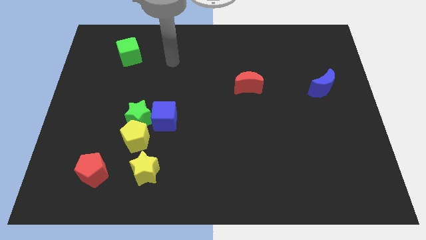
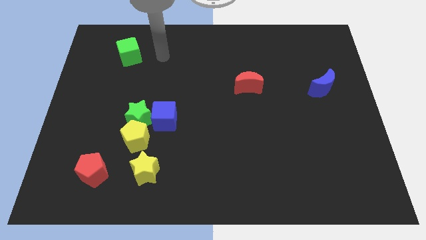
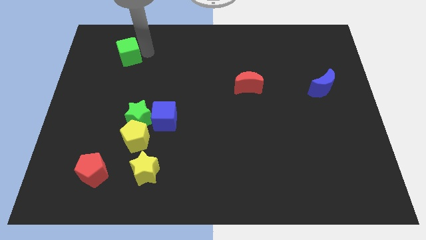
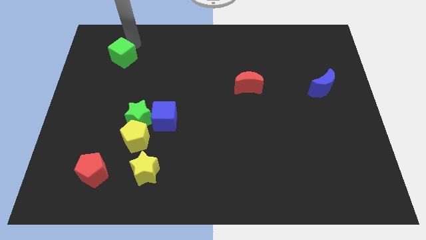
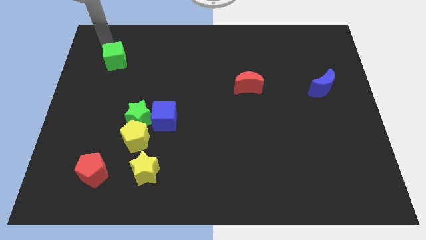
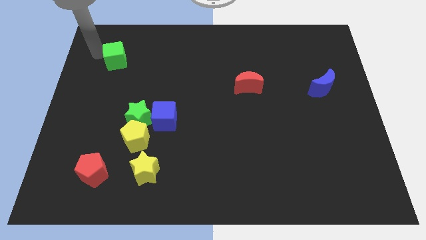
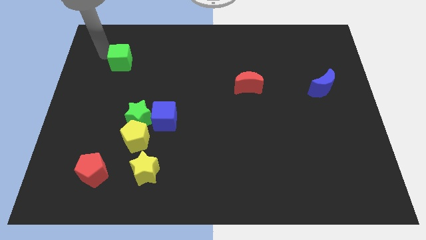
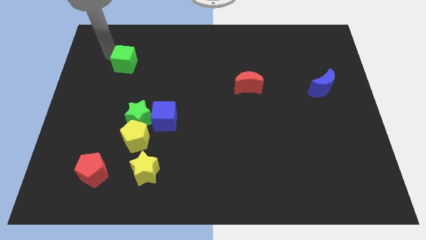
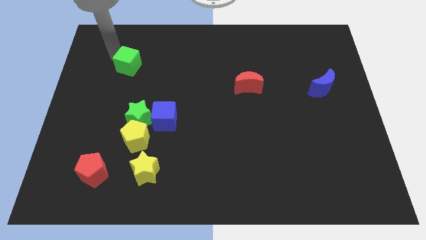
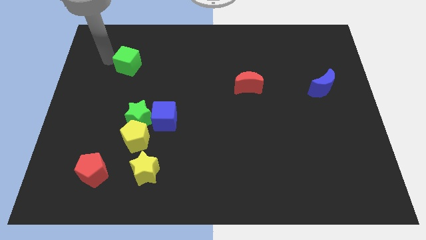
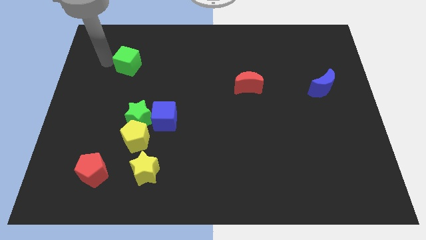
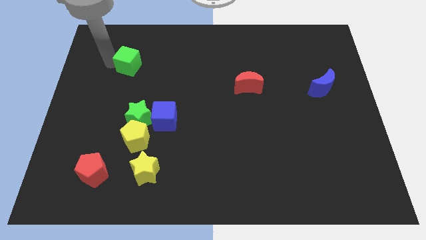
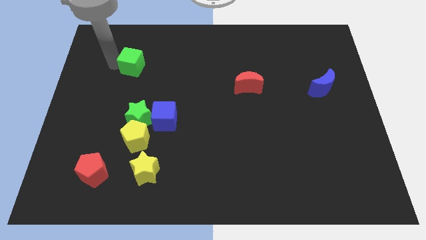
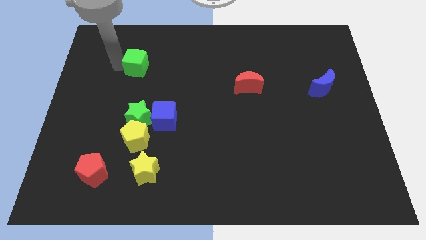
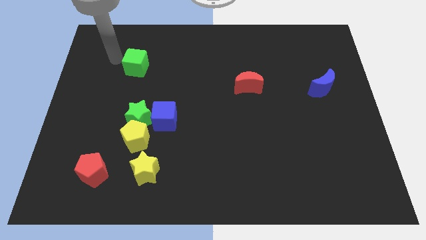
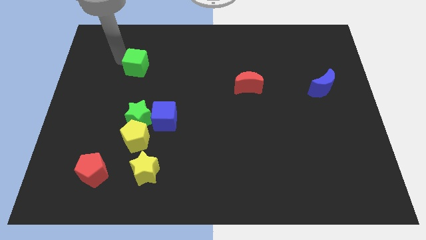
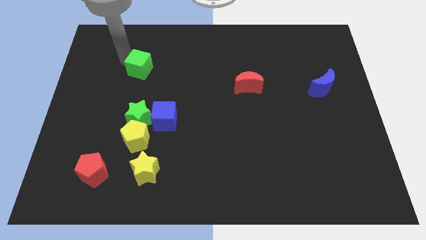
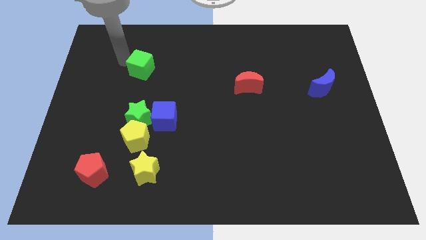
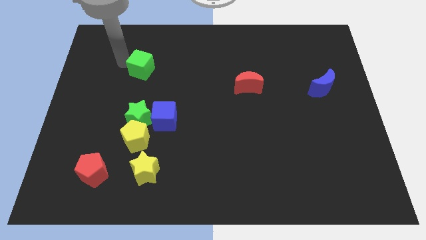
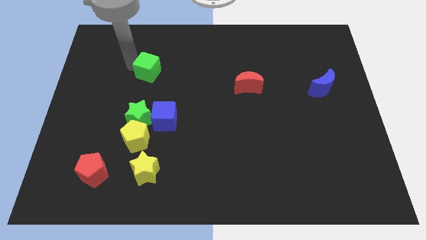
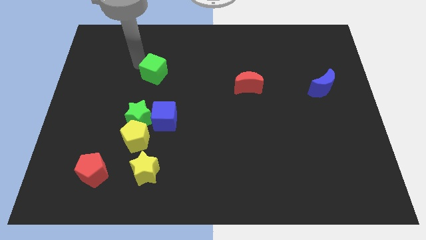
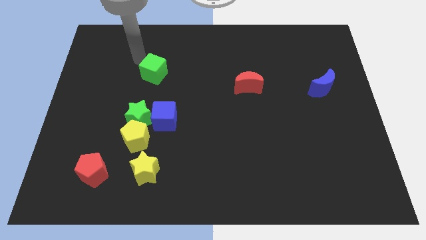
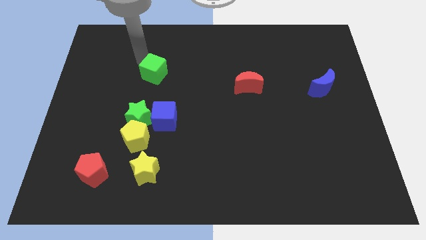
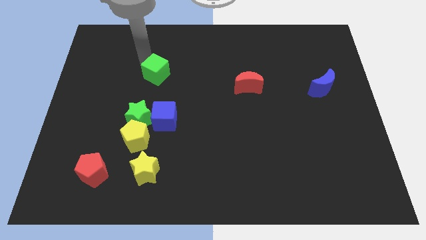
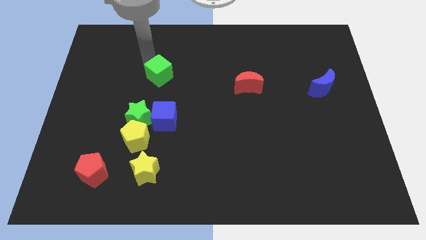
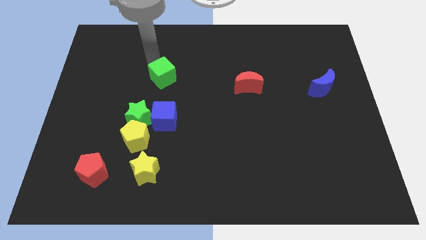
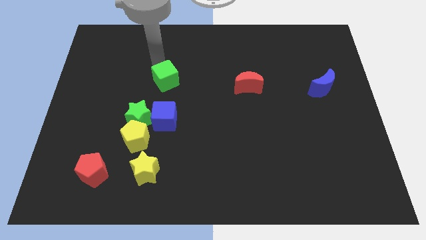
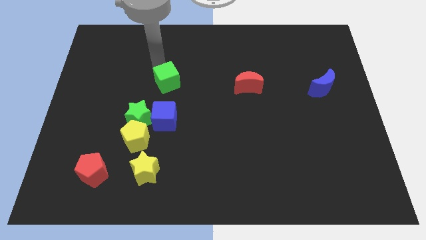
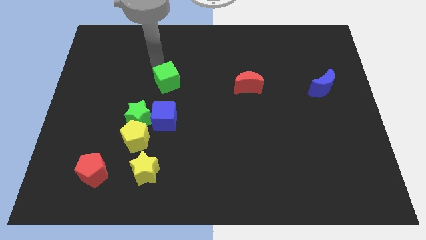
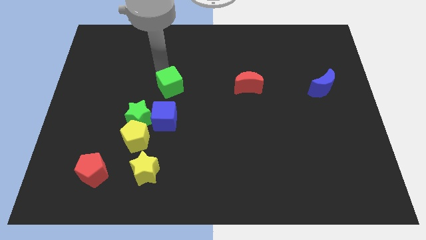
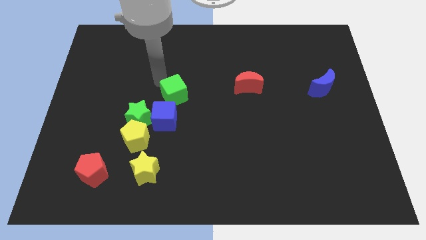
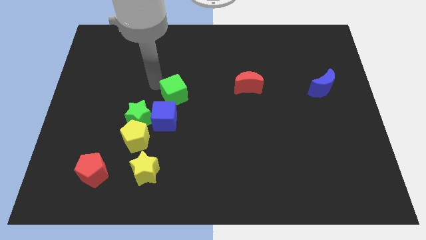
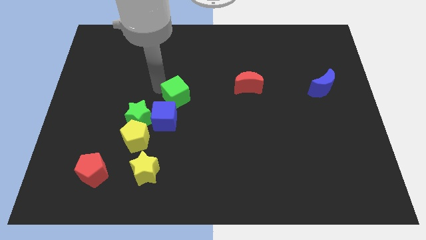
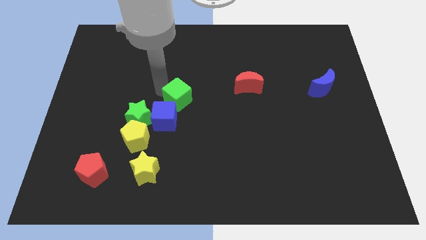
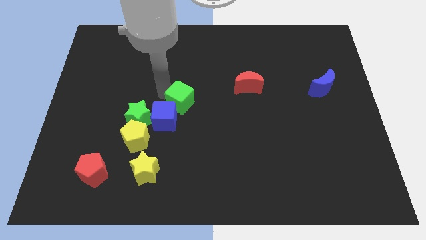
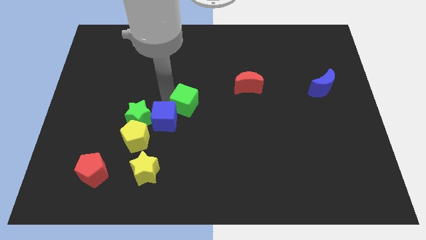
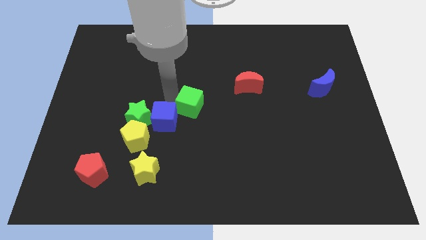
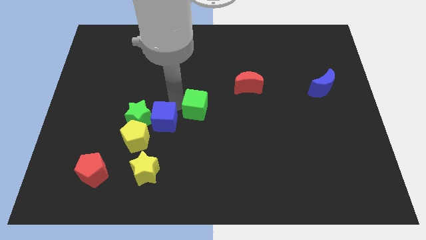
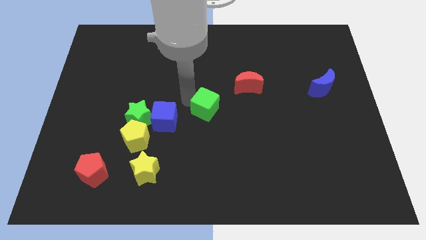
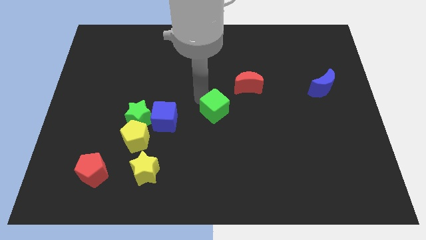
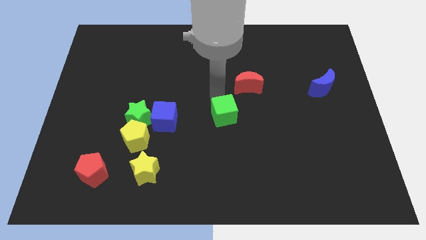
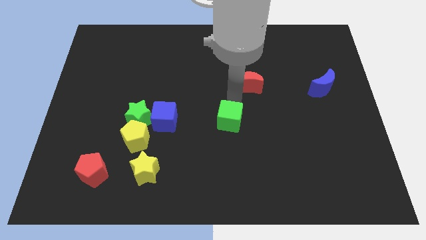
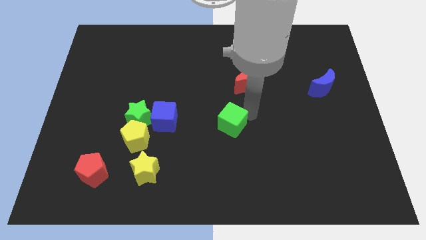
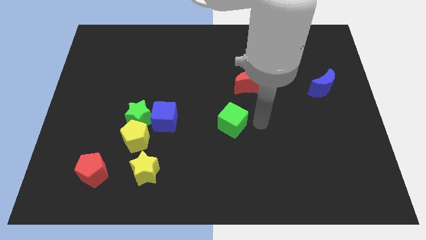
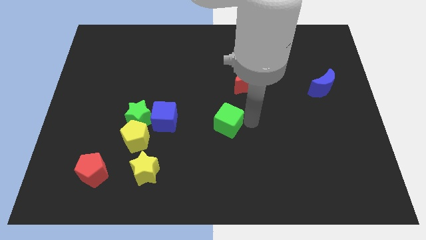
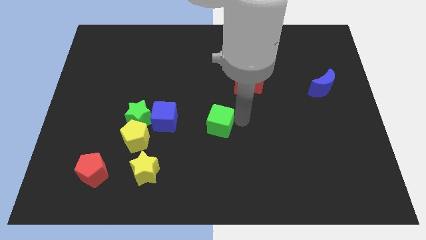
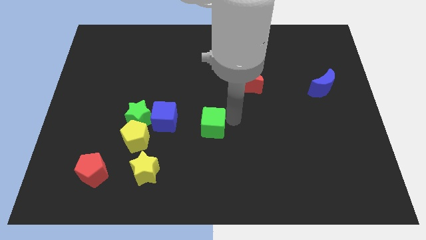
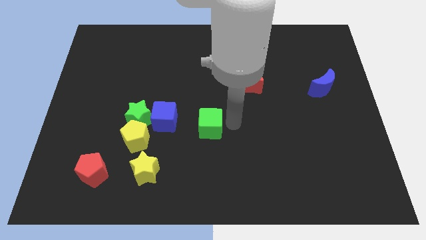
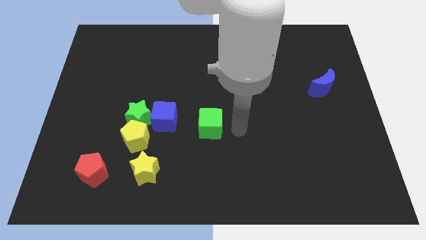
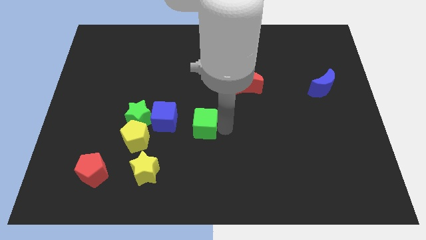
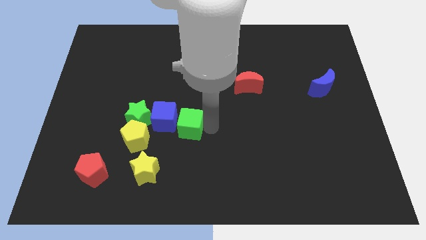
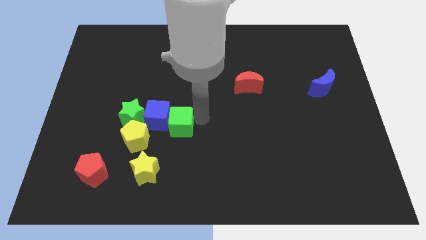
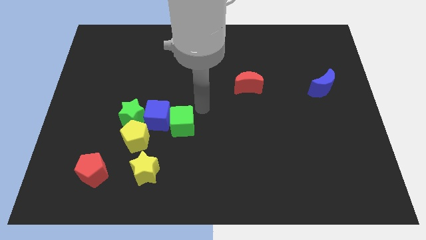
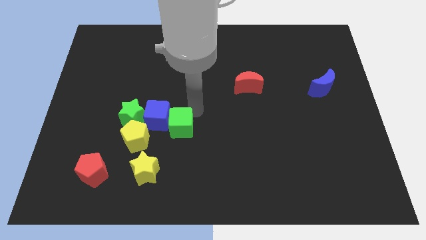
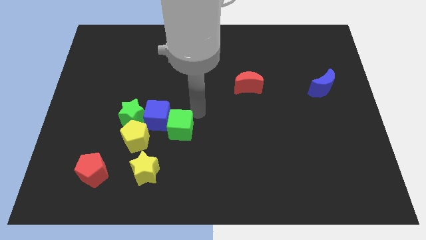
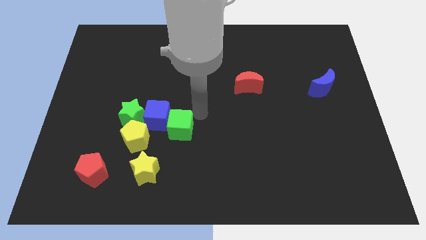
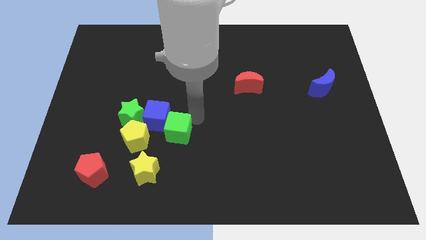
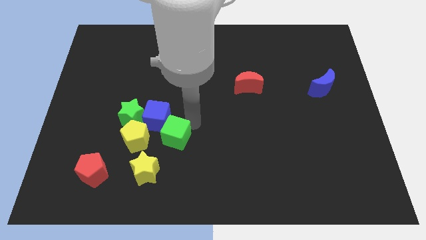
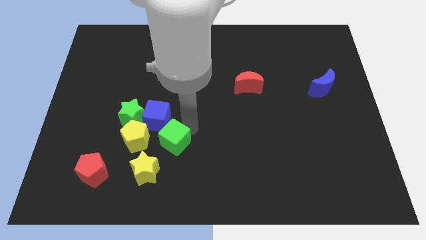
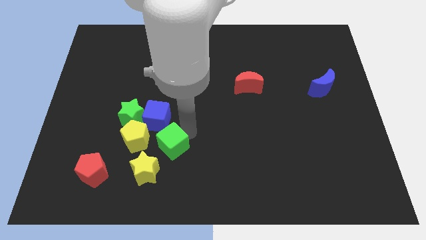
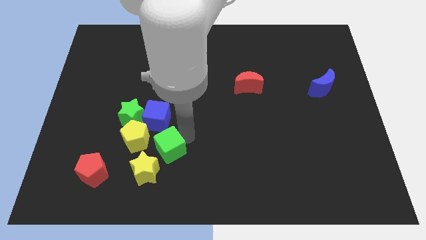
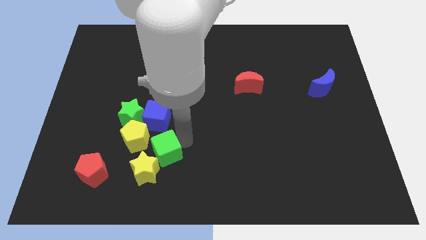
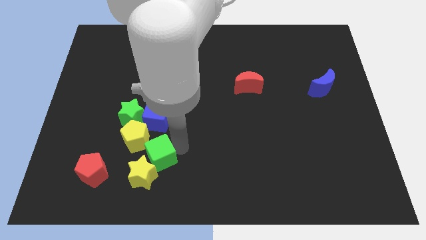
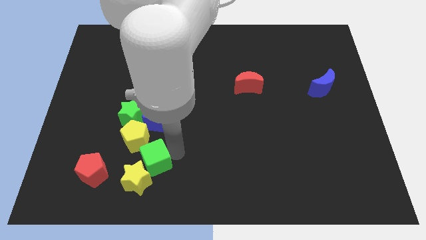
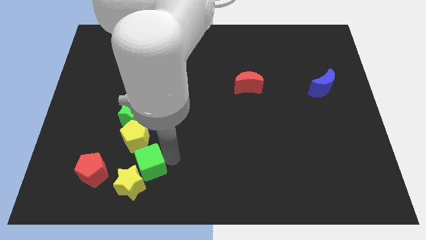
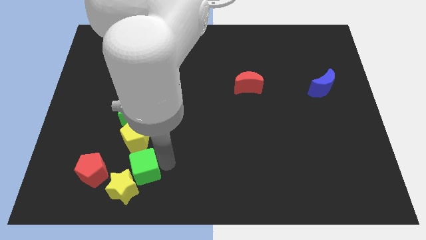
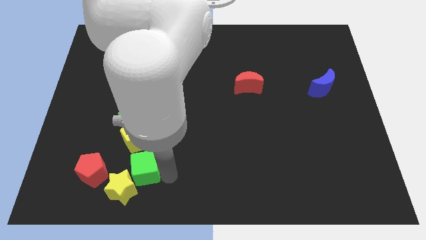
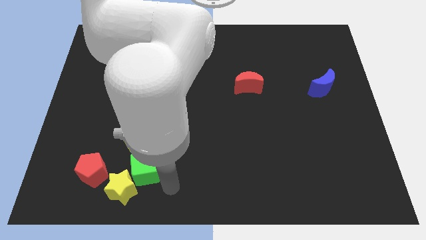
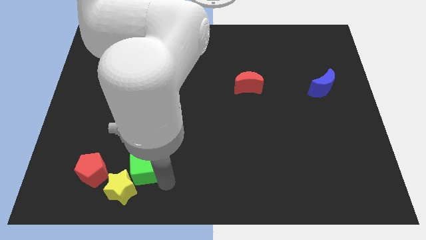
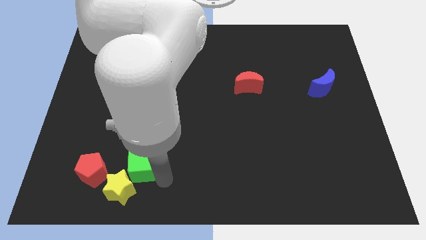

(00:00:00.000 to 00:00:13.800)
push the green cube to the bottom side of the green star

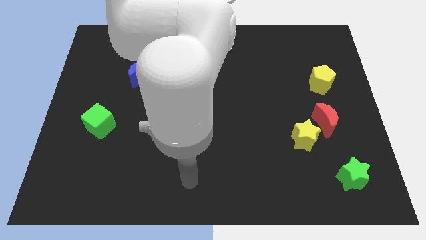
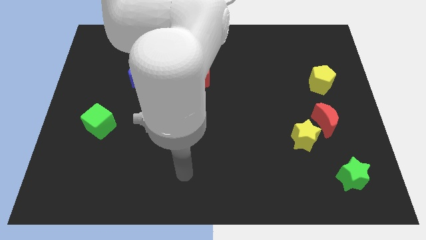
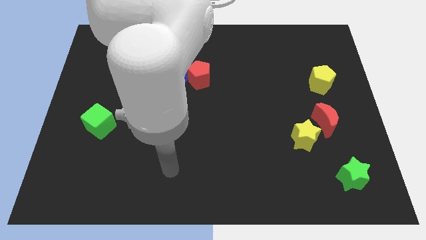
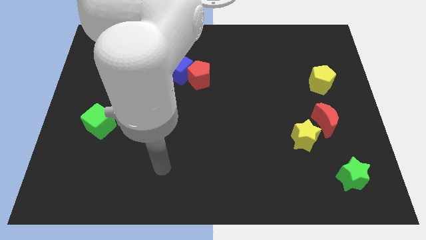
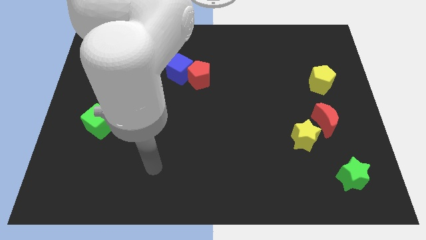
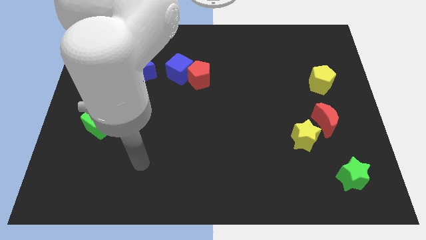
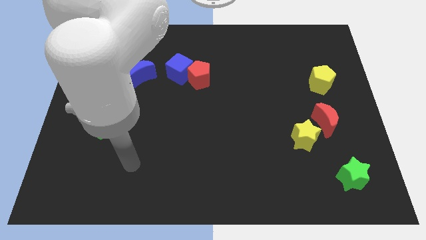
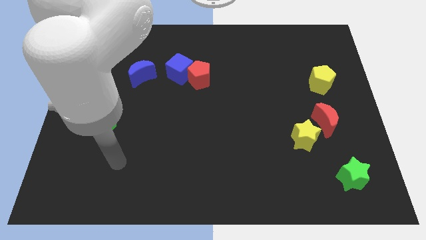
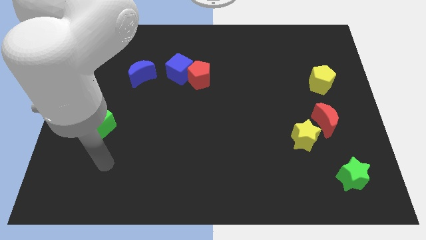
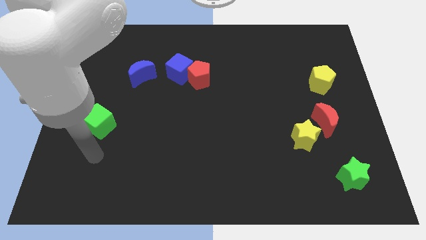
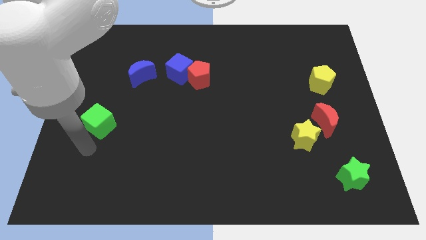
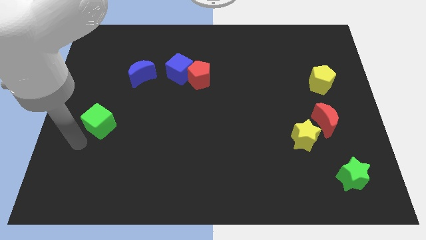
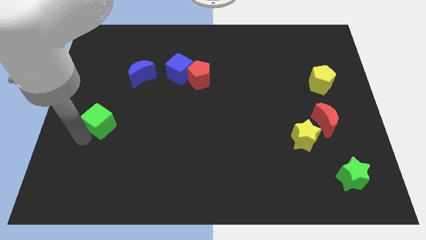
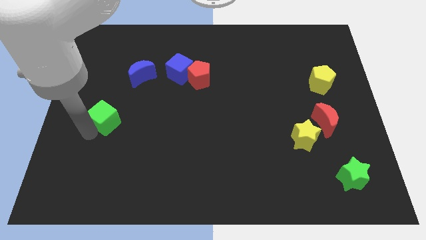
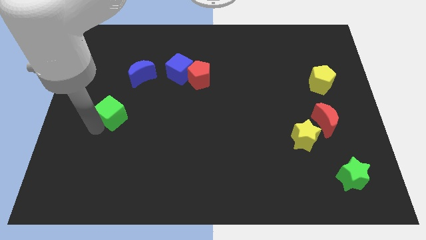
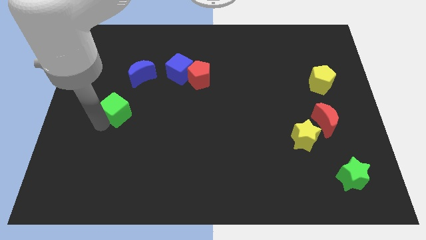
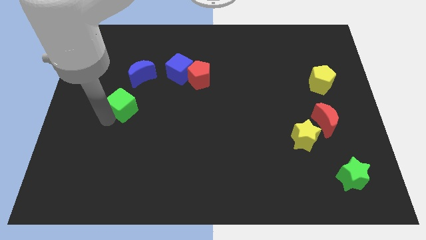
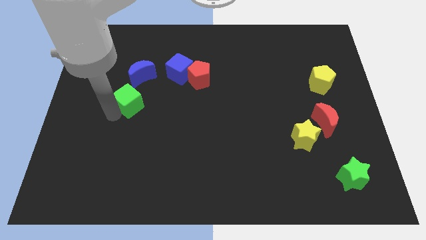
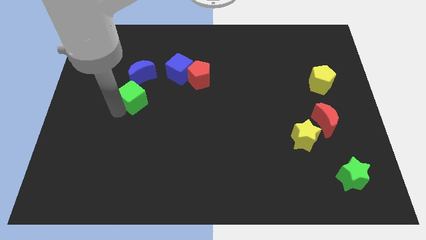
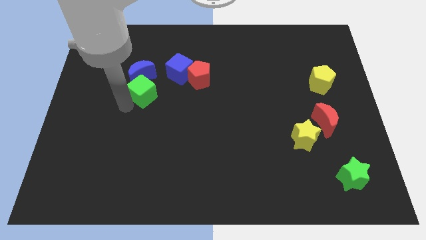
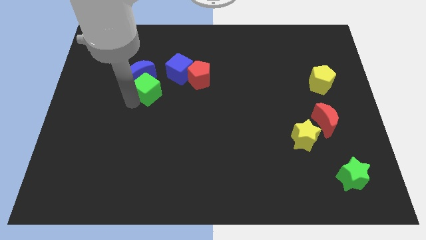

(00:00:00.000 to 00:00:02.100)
push the green cube just left of the red pentagon
